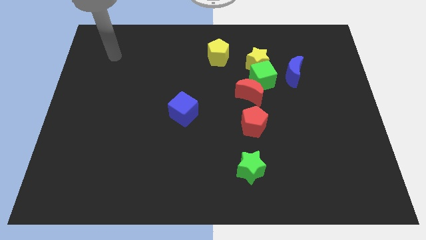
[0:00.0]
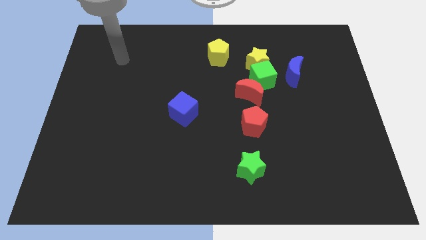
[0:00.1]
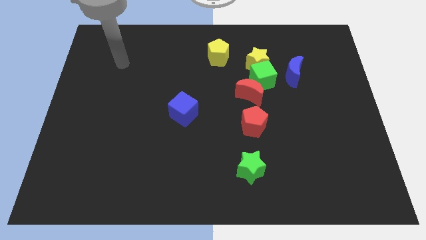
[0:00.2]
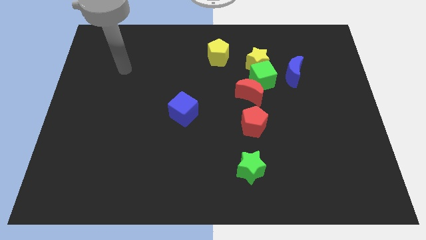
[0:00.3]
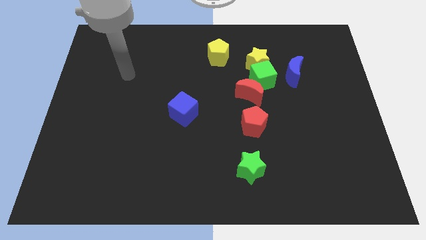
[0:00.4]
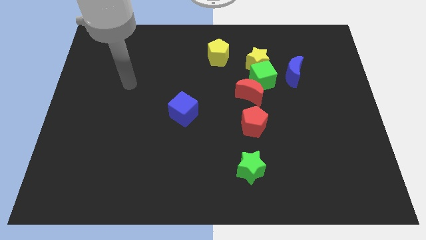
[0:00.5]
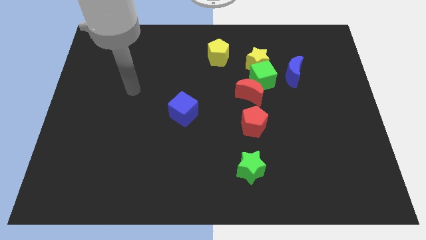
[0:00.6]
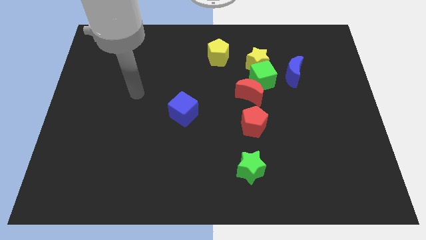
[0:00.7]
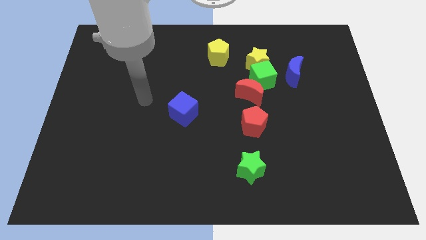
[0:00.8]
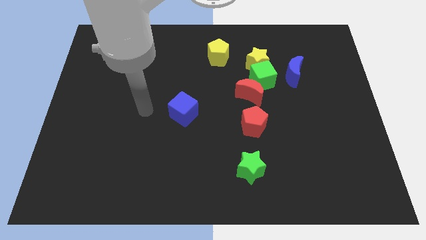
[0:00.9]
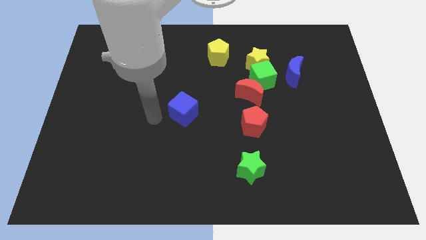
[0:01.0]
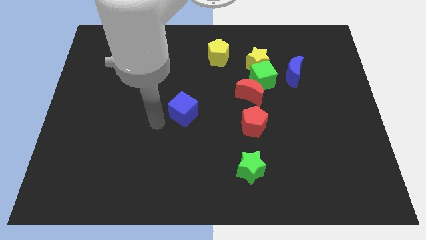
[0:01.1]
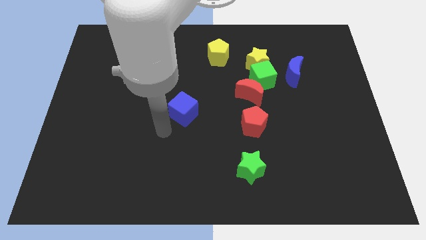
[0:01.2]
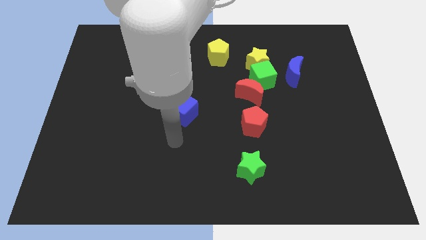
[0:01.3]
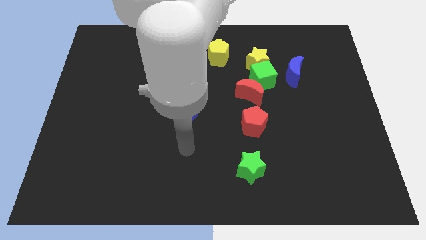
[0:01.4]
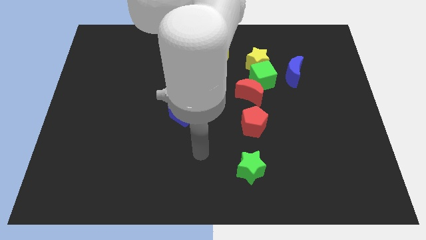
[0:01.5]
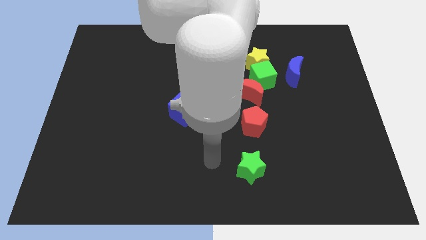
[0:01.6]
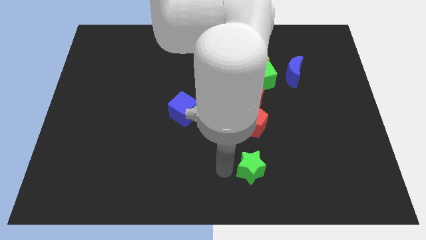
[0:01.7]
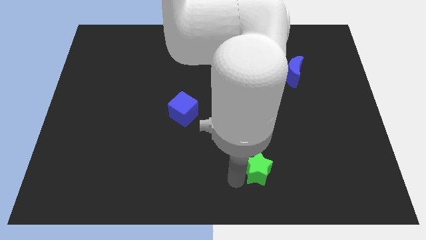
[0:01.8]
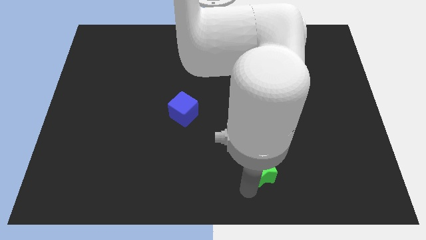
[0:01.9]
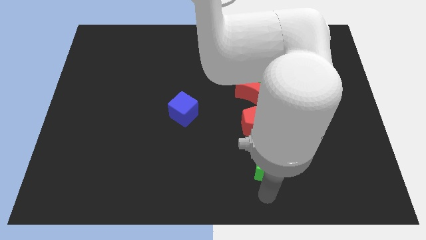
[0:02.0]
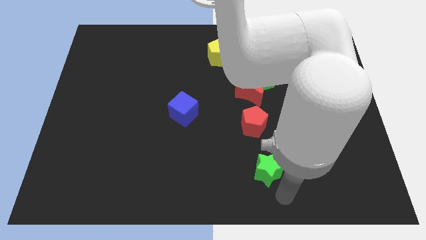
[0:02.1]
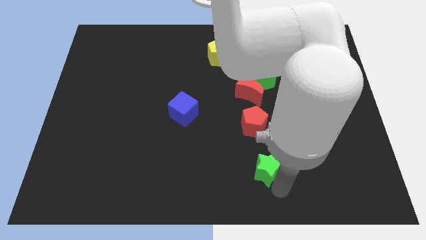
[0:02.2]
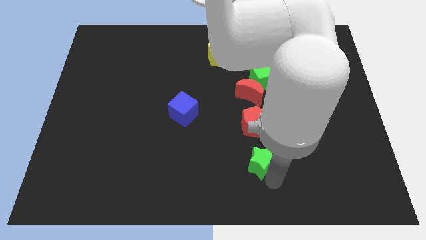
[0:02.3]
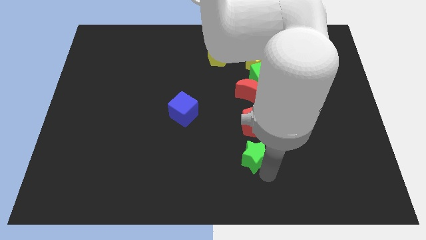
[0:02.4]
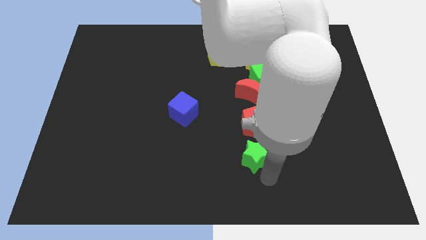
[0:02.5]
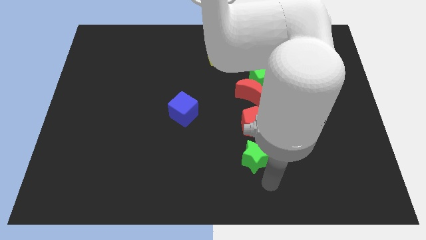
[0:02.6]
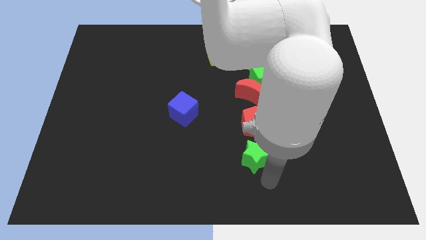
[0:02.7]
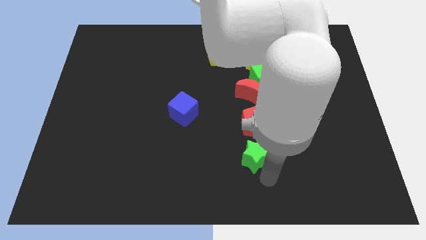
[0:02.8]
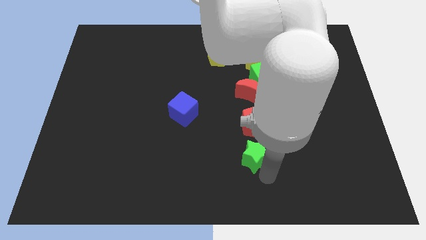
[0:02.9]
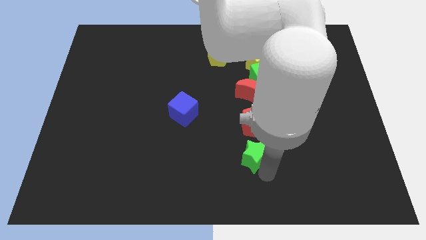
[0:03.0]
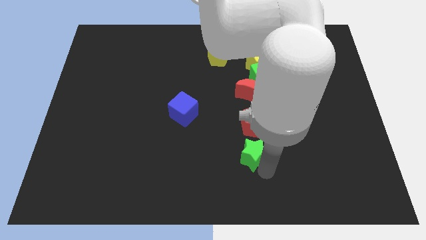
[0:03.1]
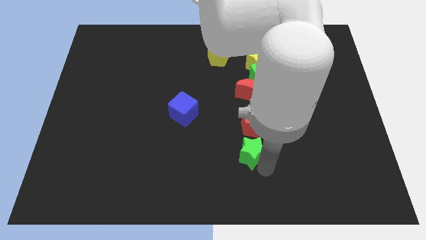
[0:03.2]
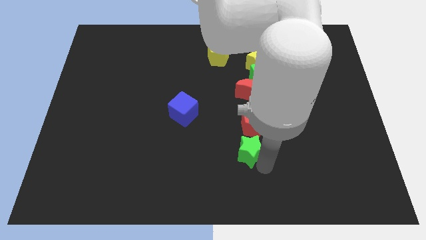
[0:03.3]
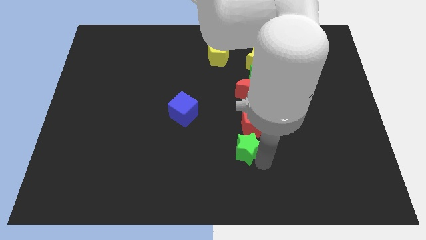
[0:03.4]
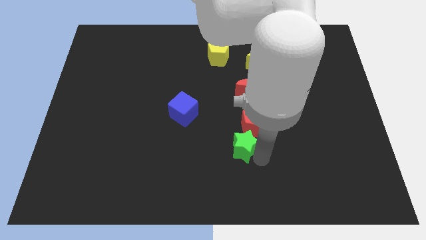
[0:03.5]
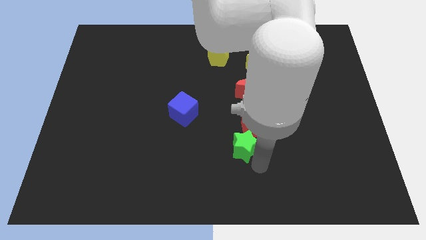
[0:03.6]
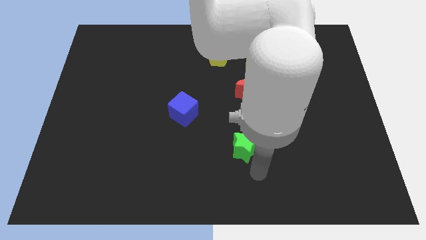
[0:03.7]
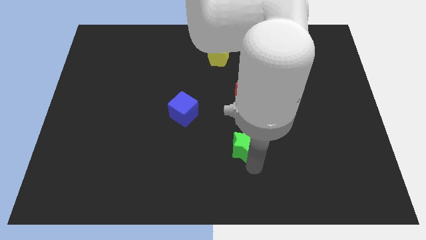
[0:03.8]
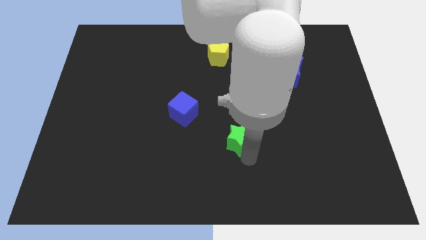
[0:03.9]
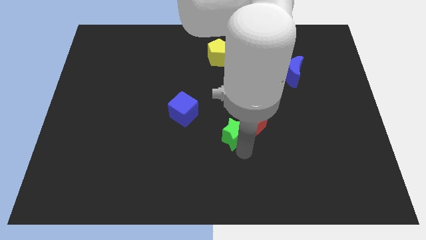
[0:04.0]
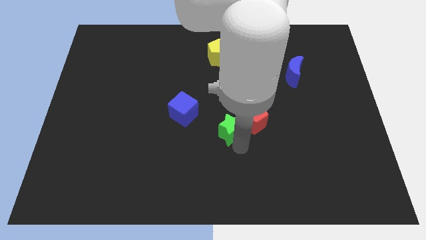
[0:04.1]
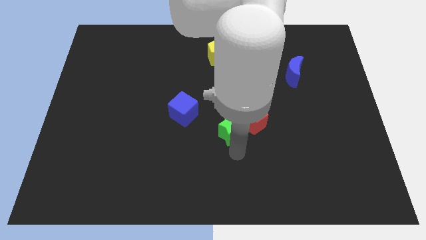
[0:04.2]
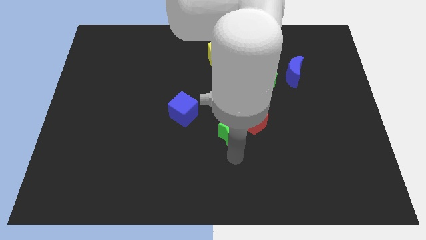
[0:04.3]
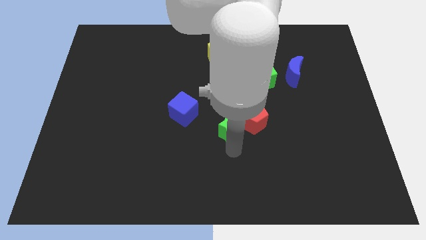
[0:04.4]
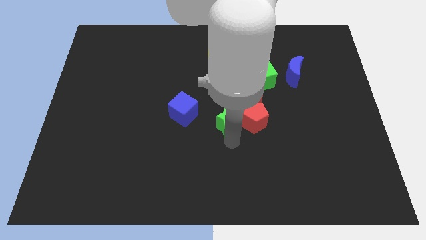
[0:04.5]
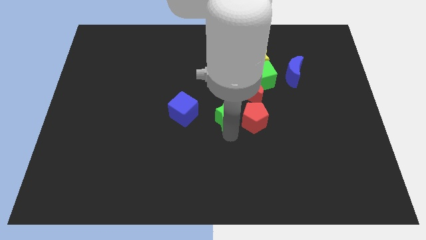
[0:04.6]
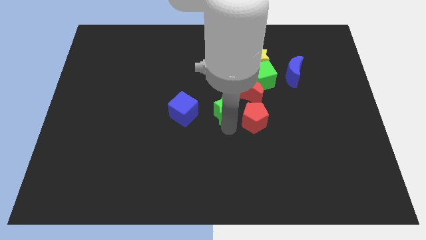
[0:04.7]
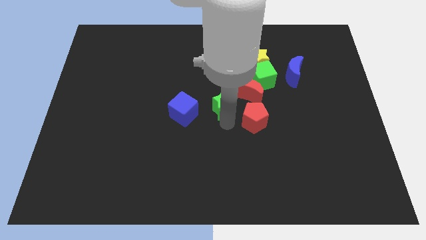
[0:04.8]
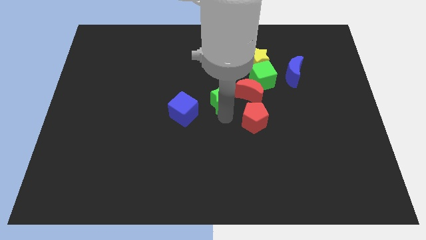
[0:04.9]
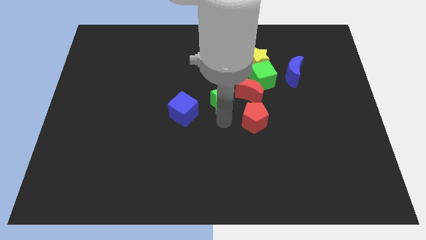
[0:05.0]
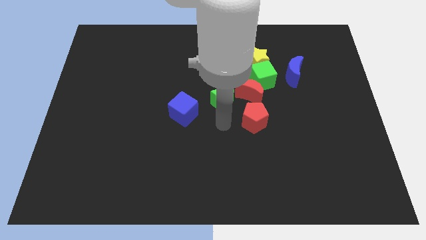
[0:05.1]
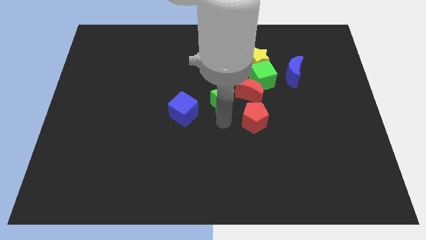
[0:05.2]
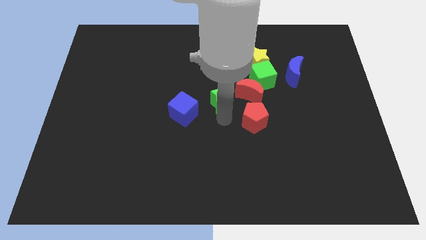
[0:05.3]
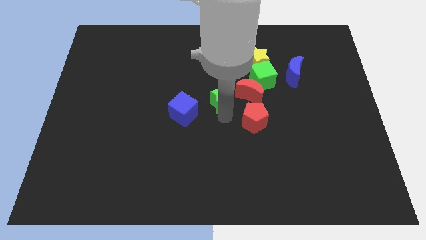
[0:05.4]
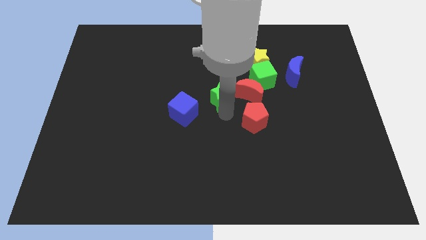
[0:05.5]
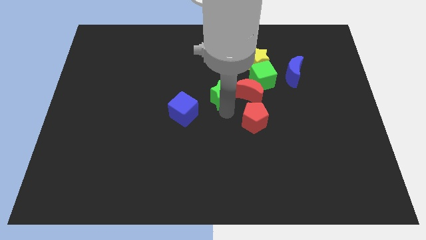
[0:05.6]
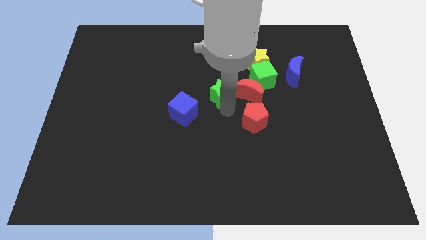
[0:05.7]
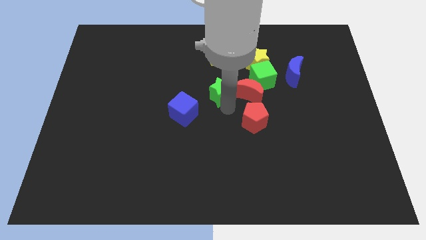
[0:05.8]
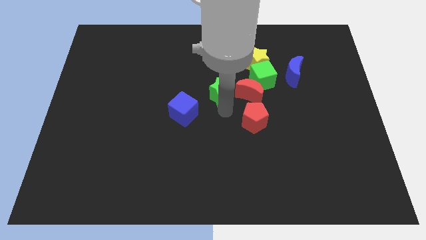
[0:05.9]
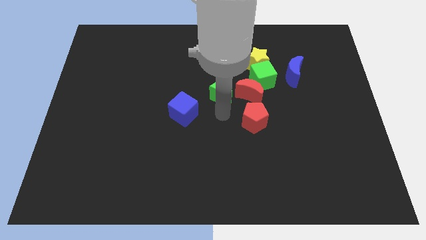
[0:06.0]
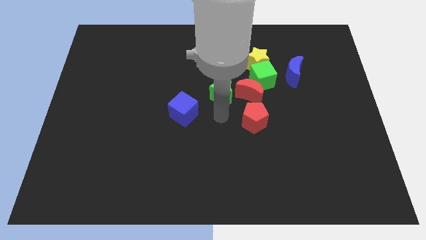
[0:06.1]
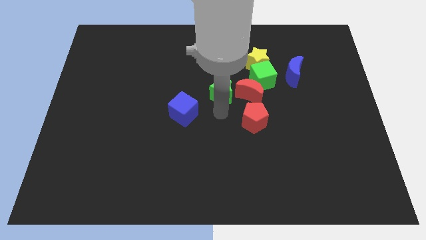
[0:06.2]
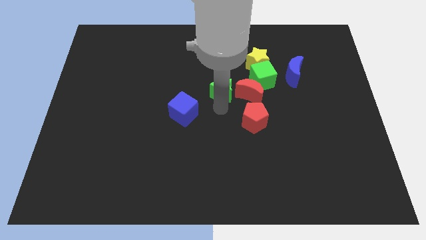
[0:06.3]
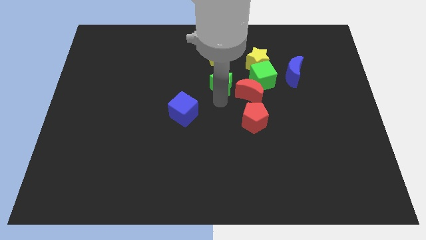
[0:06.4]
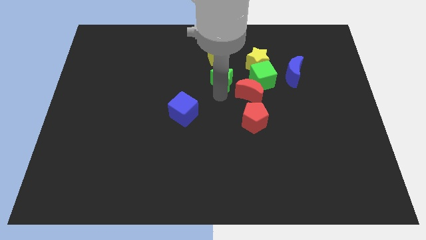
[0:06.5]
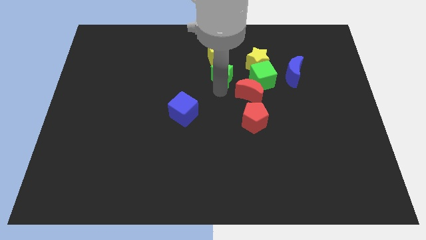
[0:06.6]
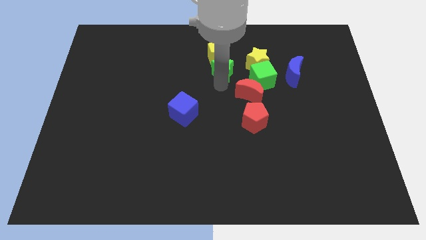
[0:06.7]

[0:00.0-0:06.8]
slide the green star next to the yellow pentagon

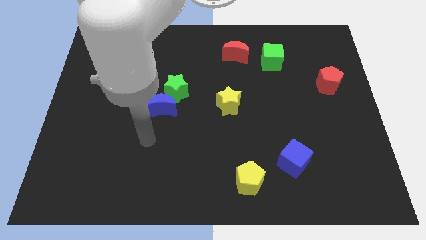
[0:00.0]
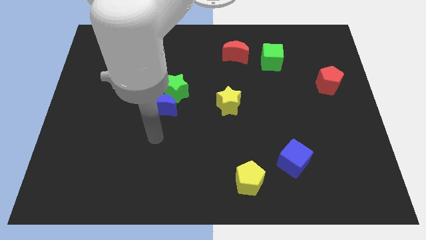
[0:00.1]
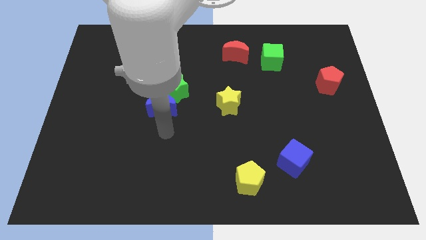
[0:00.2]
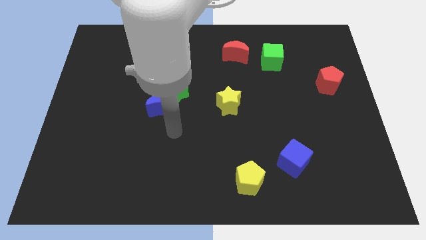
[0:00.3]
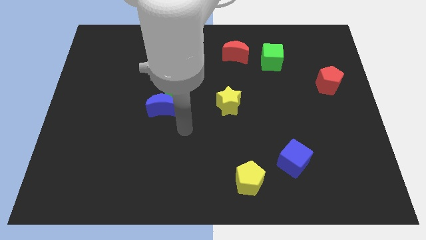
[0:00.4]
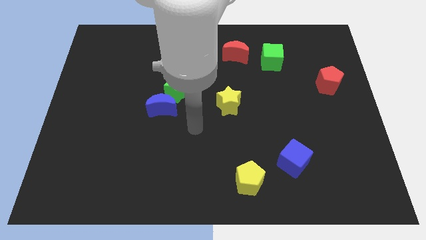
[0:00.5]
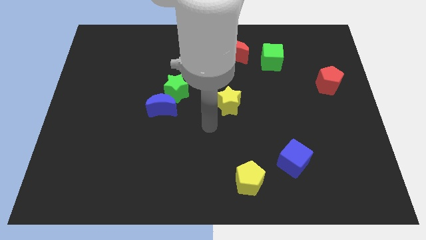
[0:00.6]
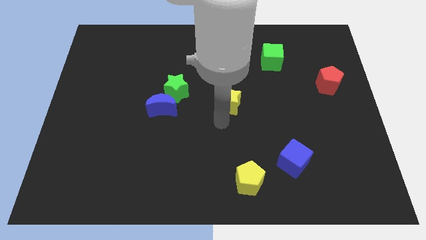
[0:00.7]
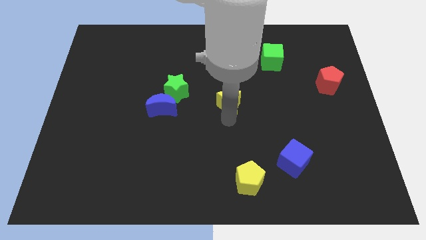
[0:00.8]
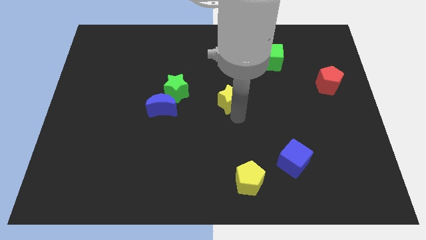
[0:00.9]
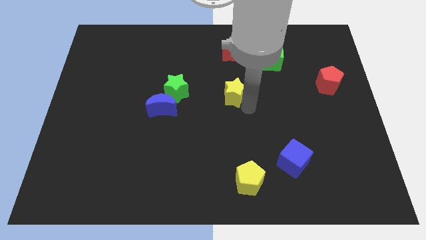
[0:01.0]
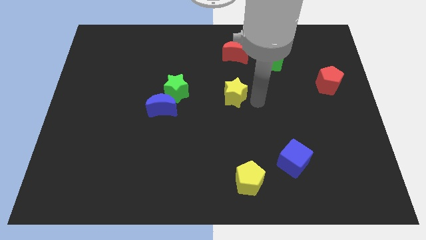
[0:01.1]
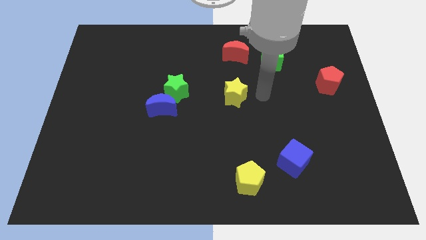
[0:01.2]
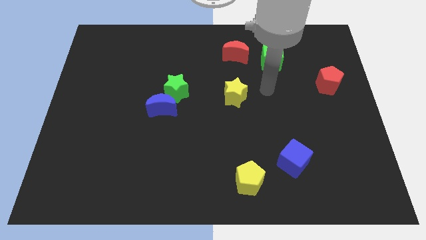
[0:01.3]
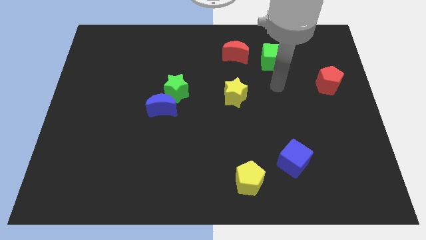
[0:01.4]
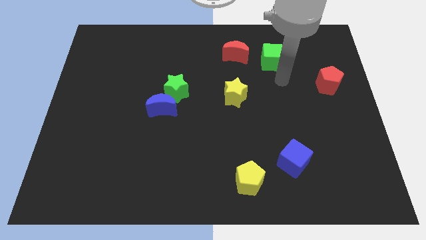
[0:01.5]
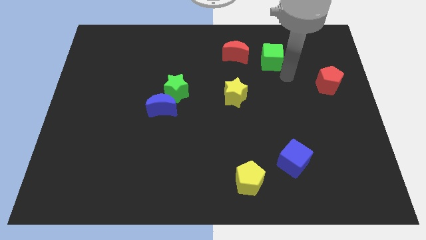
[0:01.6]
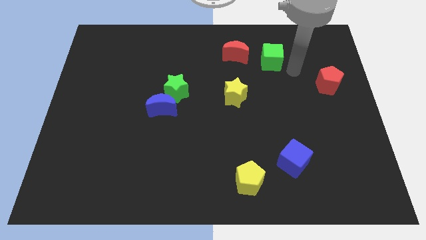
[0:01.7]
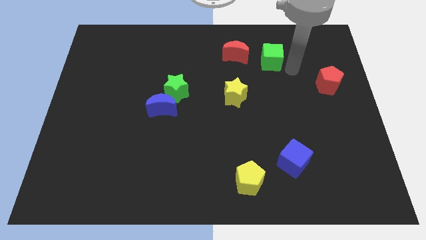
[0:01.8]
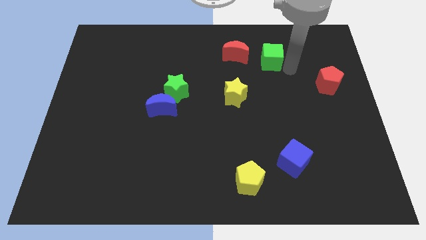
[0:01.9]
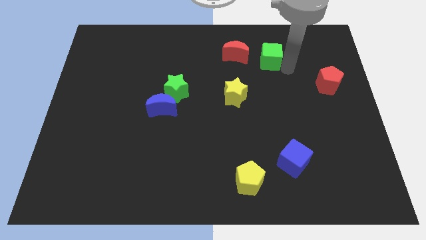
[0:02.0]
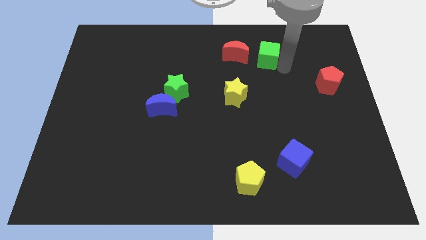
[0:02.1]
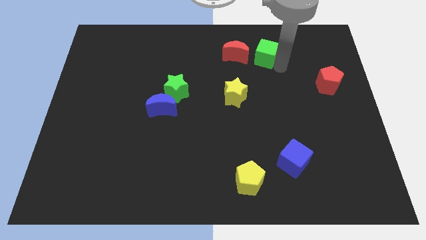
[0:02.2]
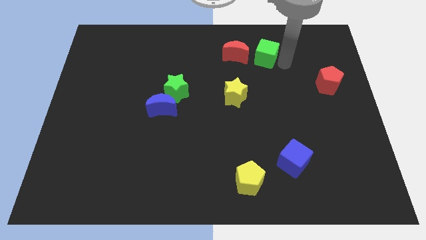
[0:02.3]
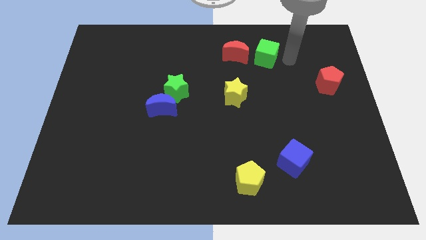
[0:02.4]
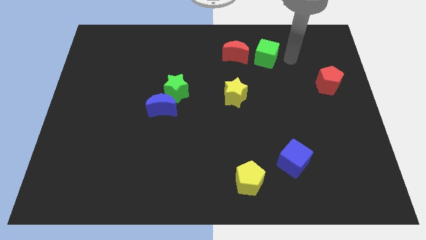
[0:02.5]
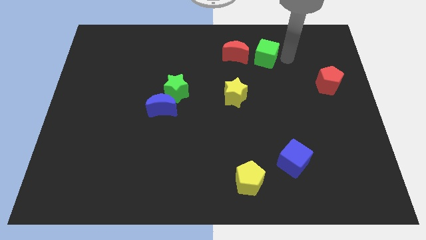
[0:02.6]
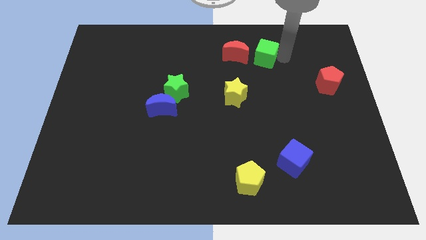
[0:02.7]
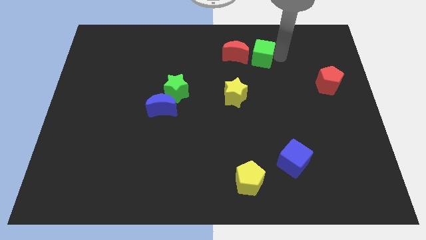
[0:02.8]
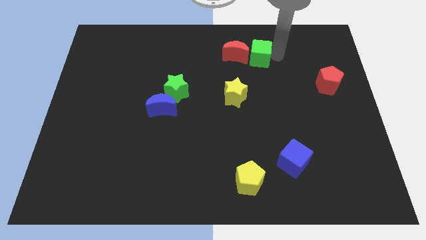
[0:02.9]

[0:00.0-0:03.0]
slide the green cube next to the red moon
